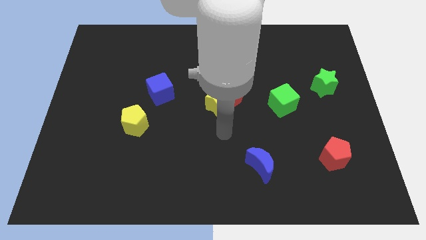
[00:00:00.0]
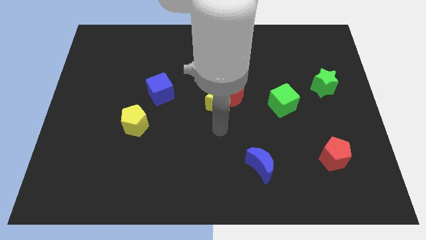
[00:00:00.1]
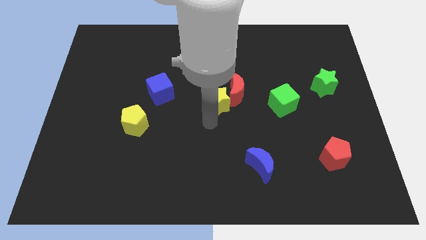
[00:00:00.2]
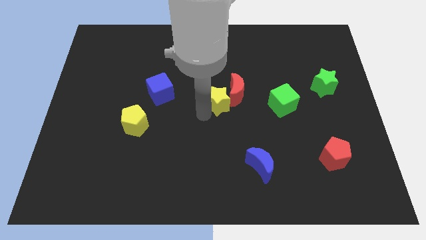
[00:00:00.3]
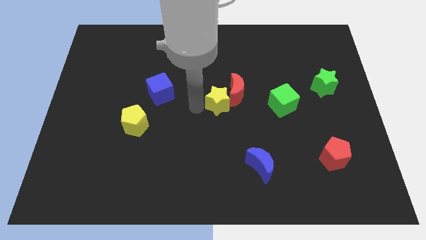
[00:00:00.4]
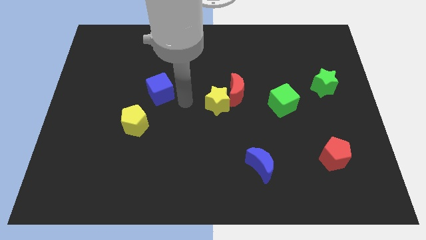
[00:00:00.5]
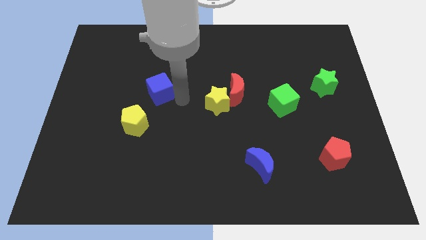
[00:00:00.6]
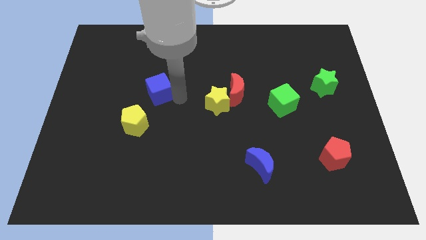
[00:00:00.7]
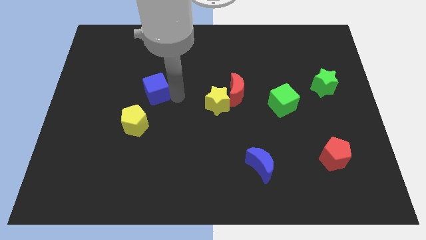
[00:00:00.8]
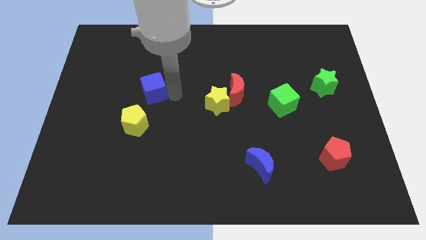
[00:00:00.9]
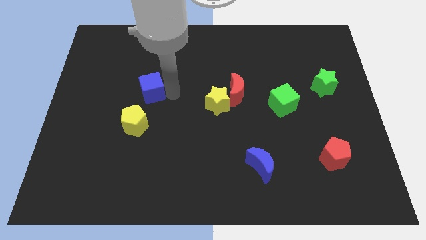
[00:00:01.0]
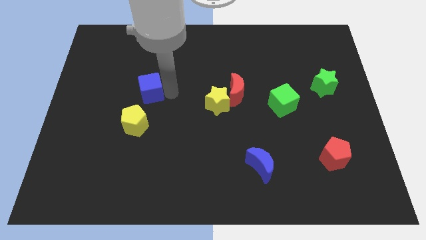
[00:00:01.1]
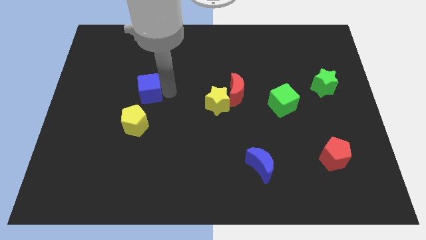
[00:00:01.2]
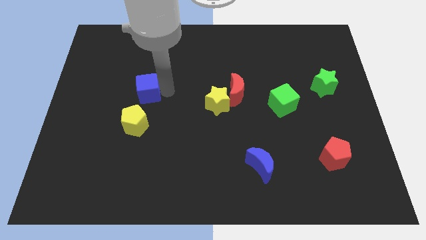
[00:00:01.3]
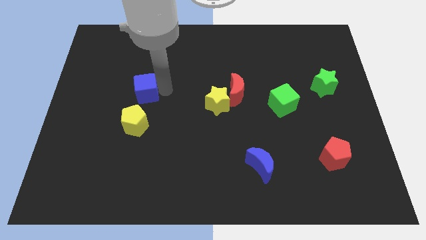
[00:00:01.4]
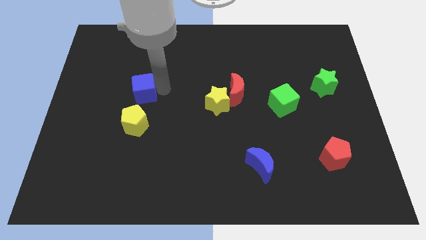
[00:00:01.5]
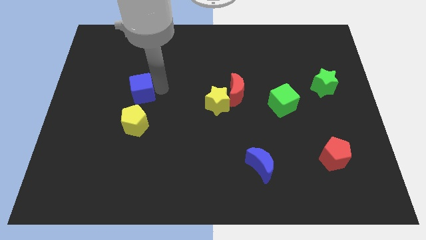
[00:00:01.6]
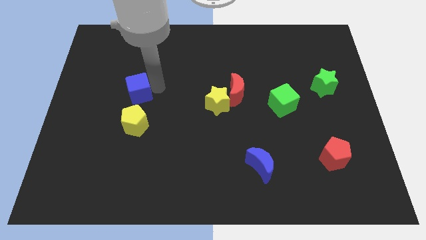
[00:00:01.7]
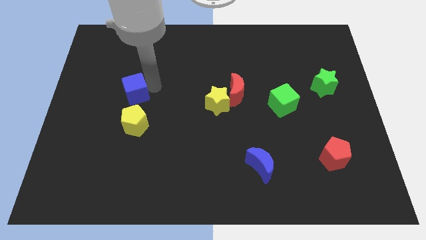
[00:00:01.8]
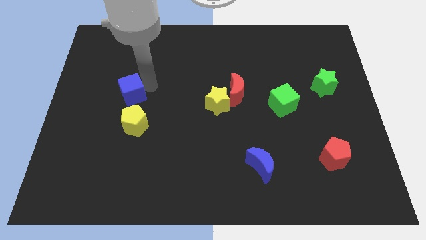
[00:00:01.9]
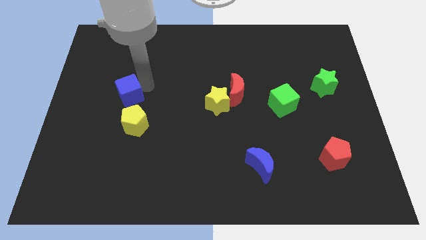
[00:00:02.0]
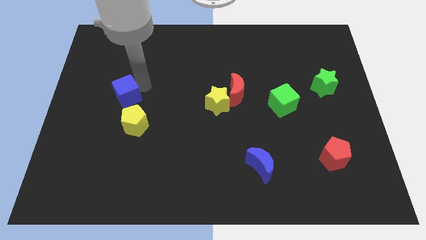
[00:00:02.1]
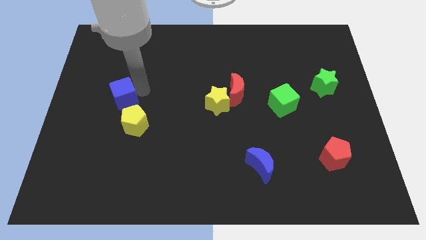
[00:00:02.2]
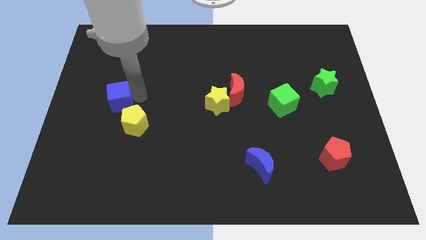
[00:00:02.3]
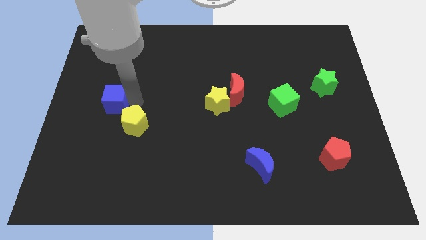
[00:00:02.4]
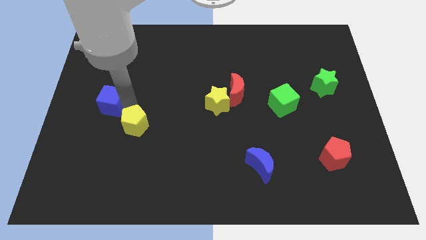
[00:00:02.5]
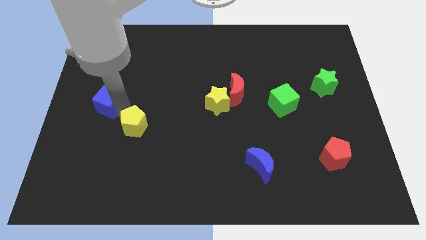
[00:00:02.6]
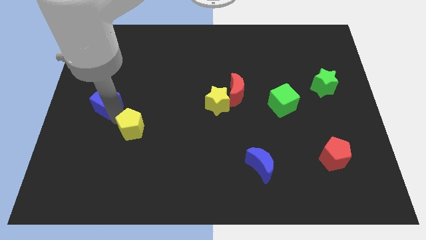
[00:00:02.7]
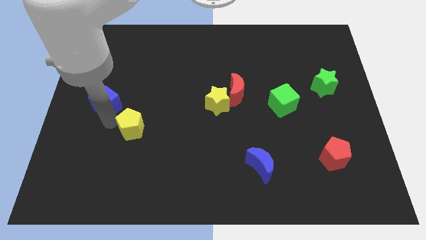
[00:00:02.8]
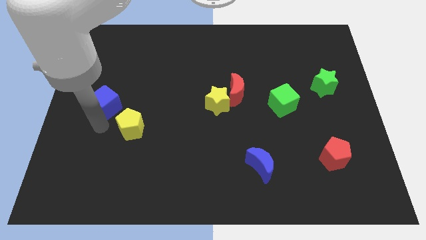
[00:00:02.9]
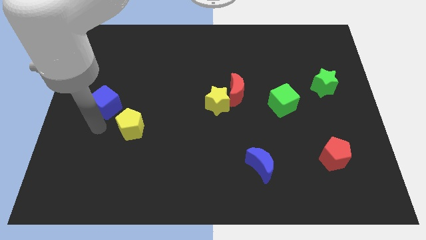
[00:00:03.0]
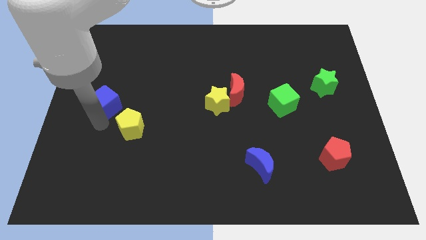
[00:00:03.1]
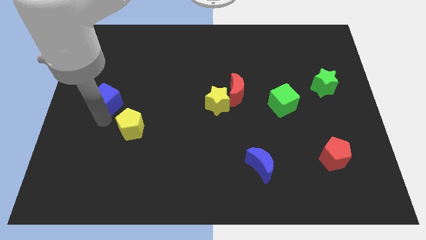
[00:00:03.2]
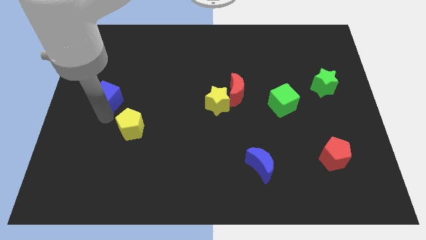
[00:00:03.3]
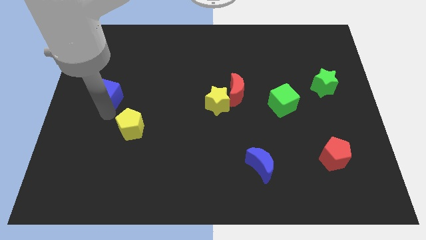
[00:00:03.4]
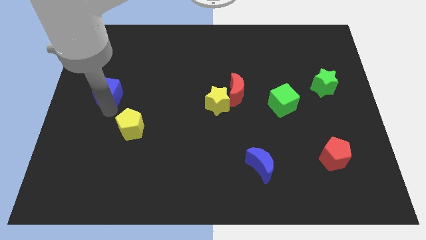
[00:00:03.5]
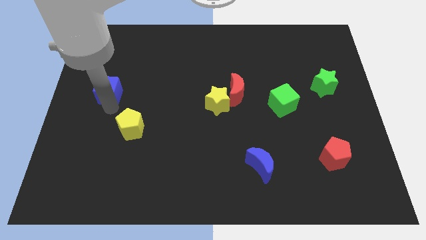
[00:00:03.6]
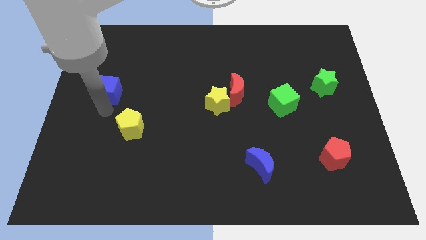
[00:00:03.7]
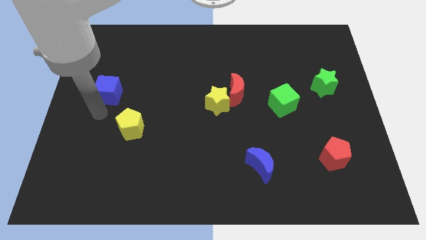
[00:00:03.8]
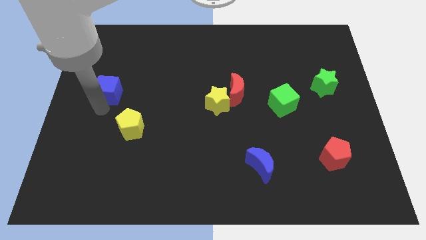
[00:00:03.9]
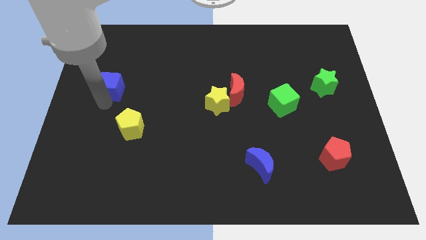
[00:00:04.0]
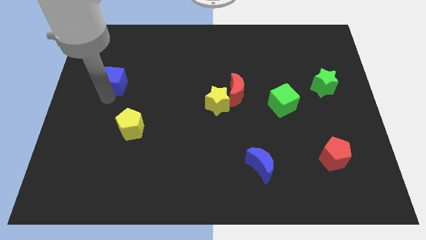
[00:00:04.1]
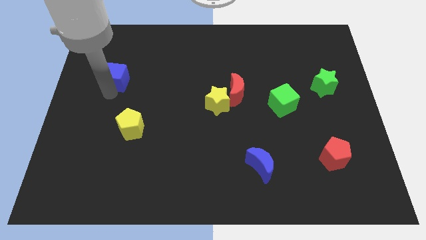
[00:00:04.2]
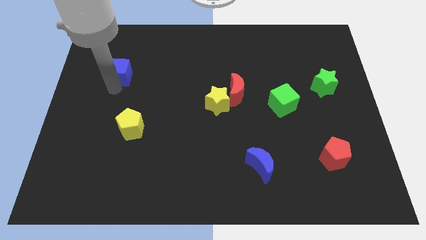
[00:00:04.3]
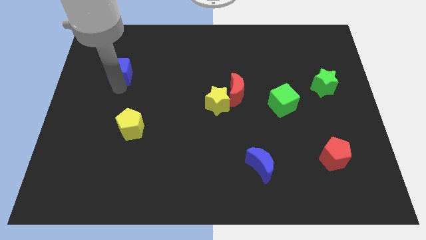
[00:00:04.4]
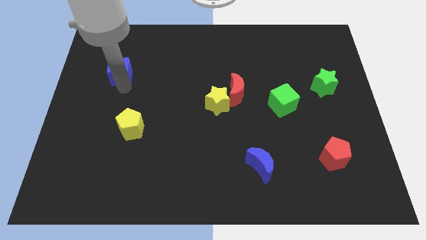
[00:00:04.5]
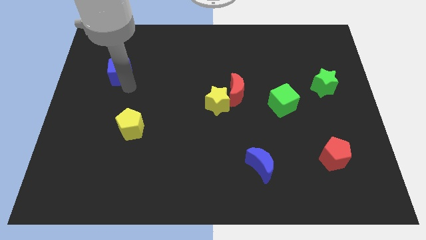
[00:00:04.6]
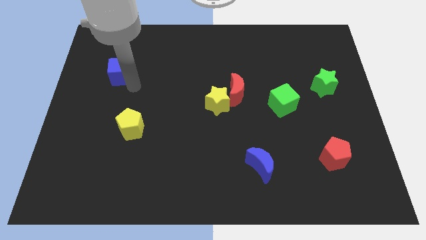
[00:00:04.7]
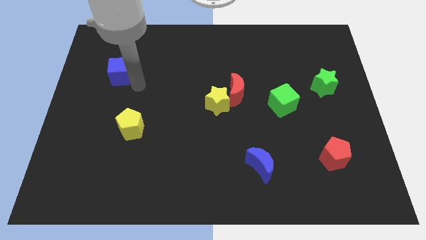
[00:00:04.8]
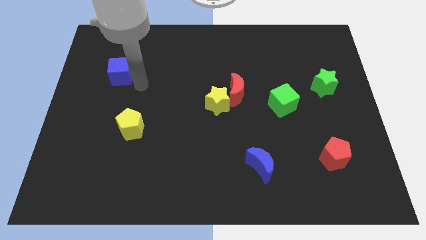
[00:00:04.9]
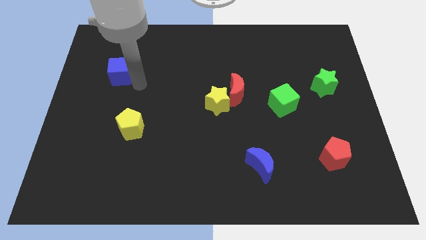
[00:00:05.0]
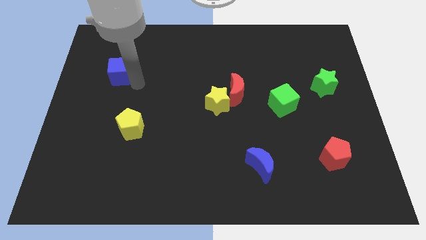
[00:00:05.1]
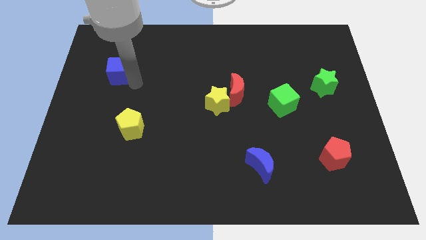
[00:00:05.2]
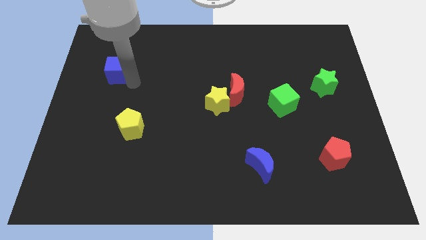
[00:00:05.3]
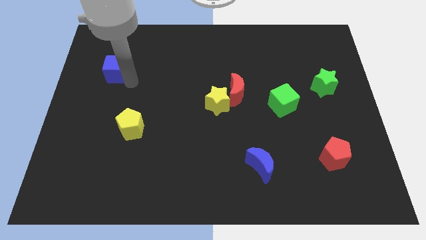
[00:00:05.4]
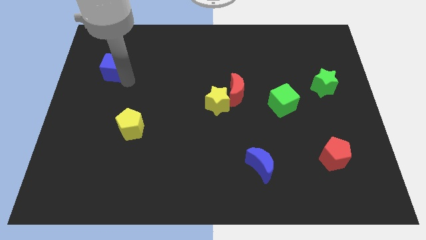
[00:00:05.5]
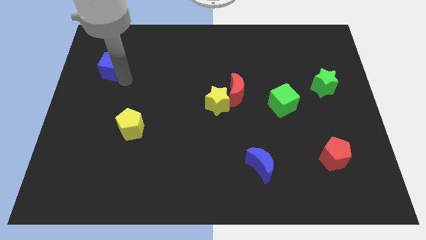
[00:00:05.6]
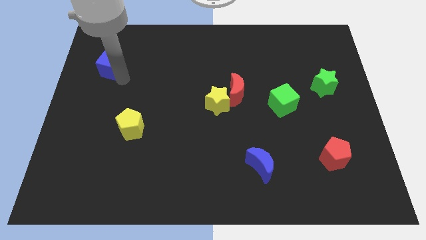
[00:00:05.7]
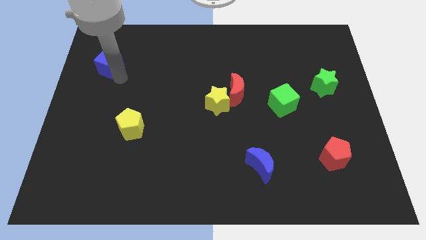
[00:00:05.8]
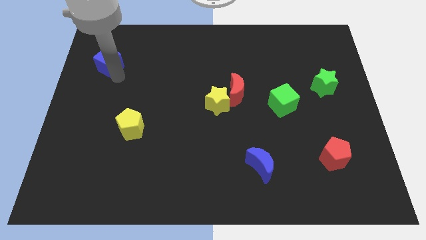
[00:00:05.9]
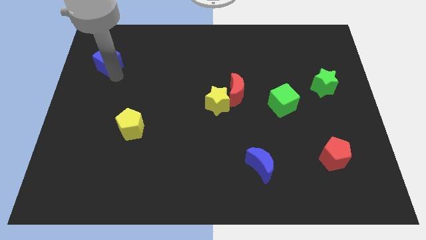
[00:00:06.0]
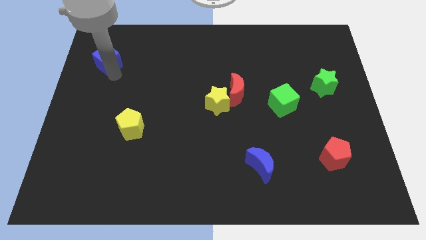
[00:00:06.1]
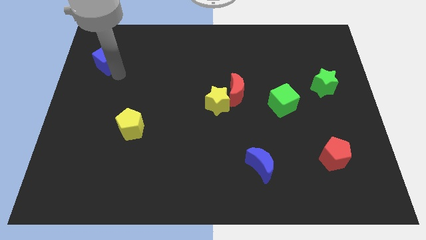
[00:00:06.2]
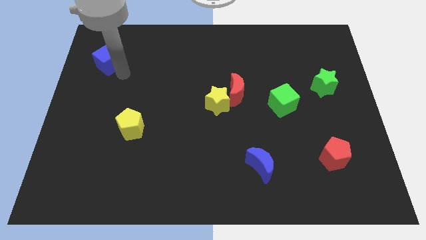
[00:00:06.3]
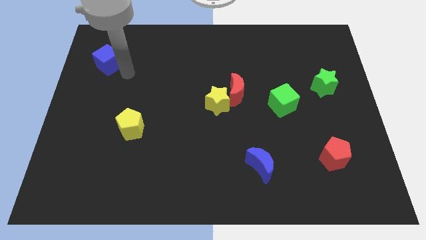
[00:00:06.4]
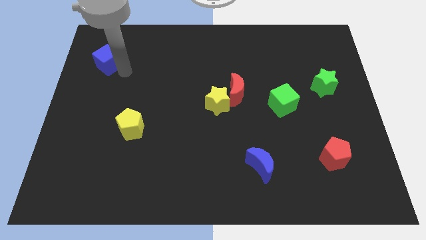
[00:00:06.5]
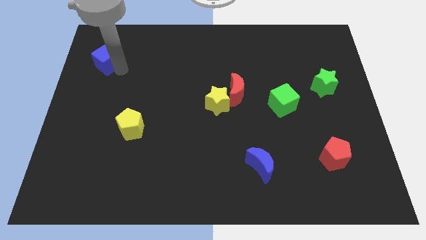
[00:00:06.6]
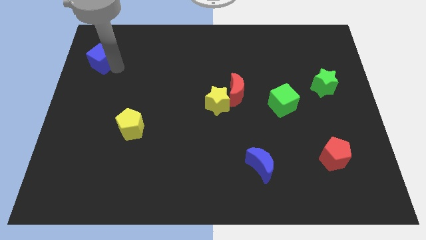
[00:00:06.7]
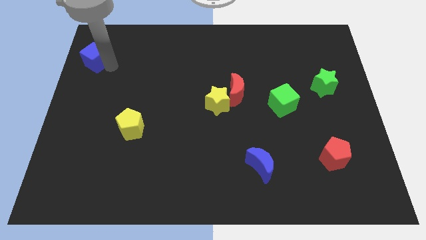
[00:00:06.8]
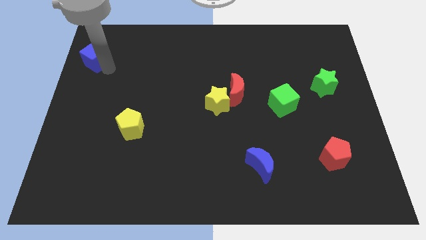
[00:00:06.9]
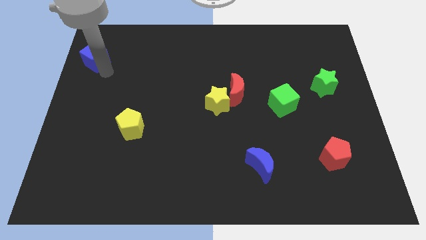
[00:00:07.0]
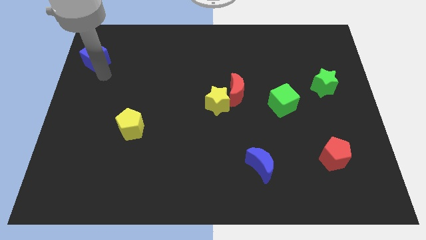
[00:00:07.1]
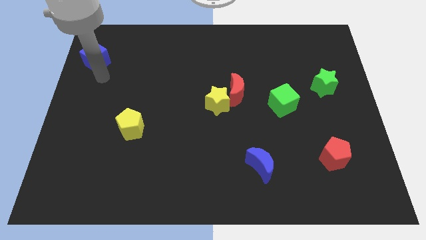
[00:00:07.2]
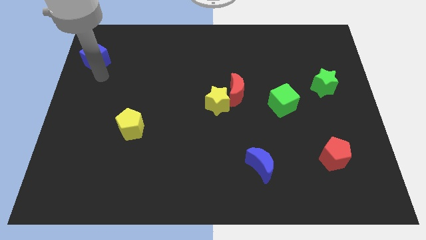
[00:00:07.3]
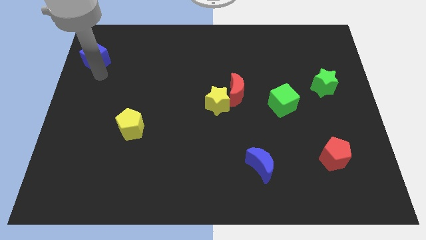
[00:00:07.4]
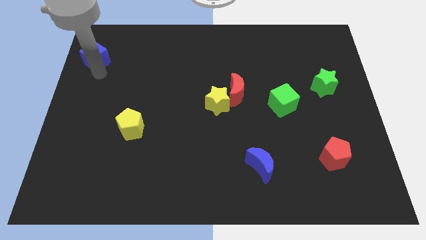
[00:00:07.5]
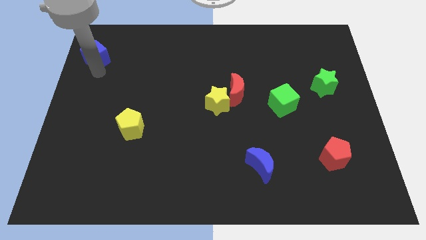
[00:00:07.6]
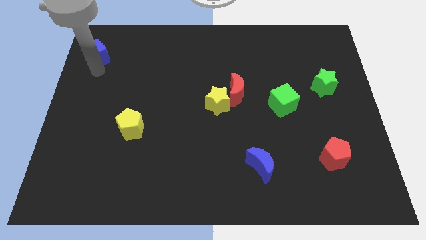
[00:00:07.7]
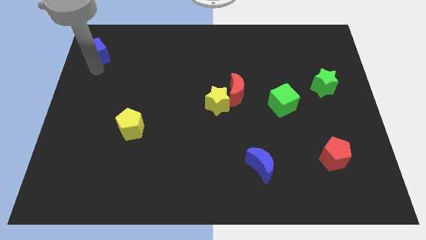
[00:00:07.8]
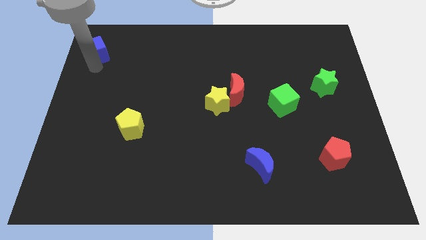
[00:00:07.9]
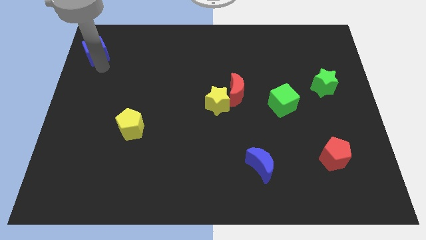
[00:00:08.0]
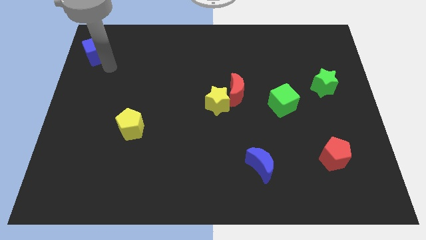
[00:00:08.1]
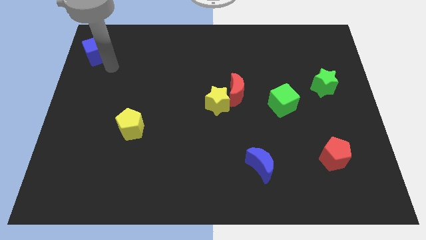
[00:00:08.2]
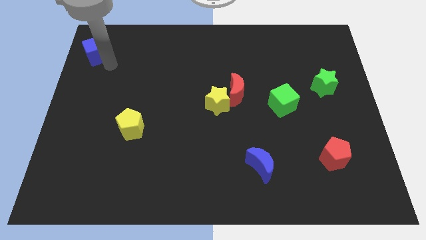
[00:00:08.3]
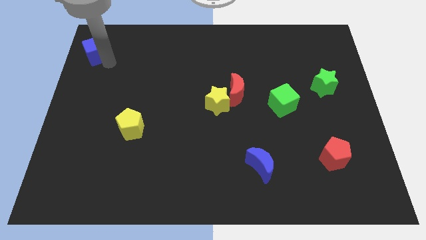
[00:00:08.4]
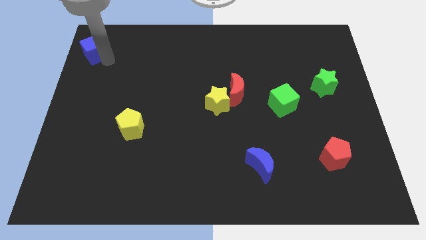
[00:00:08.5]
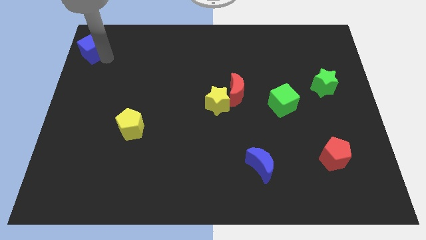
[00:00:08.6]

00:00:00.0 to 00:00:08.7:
slide the blue cube to the upper left corner
